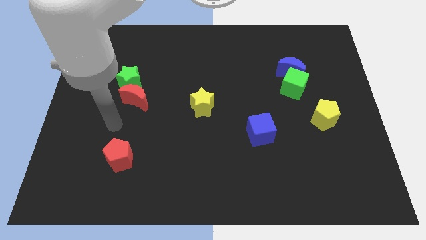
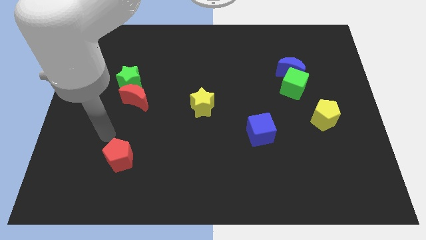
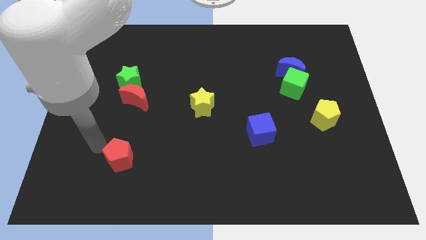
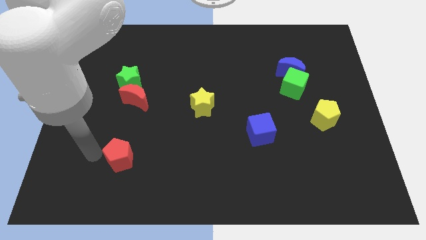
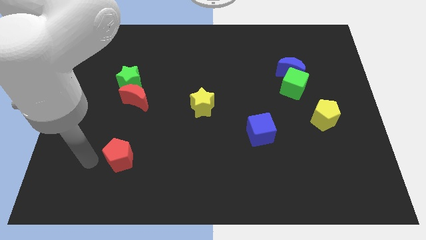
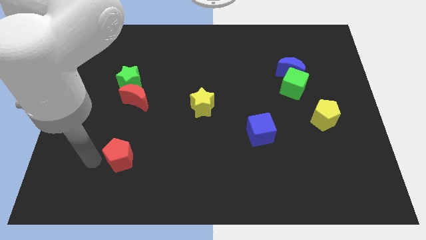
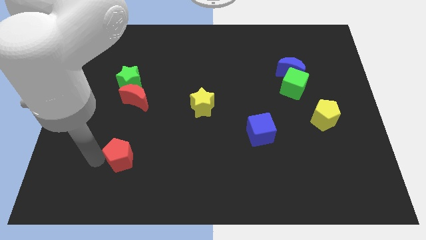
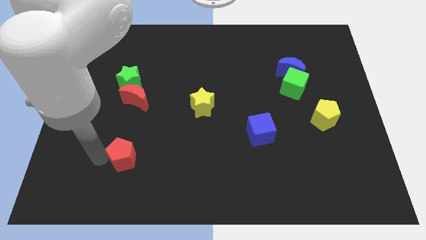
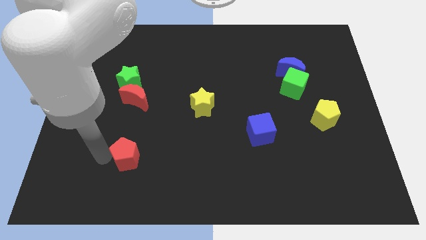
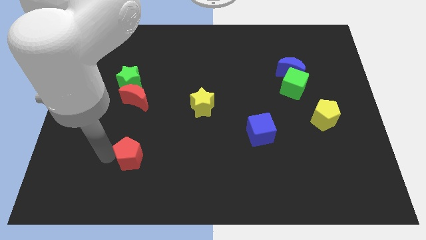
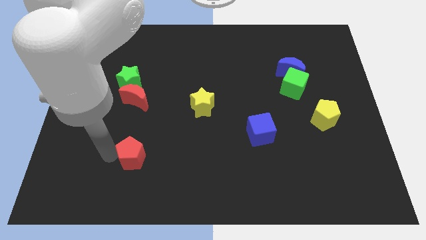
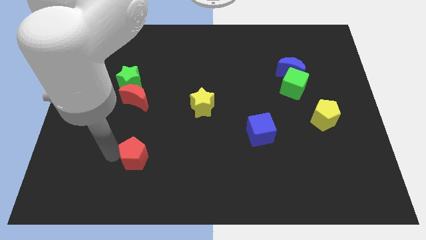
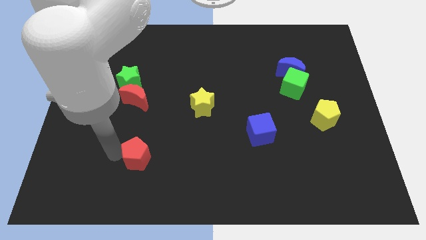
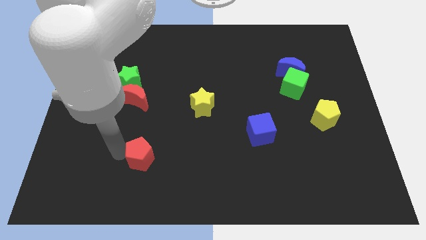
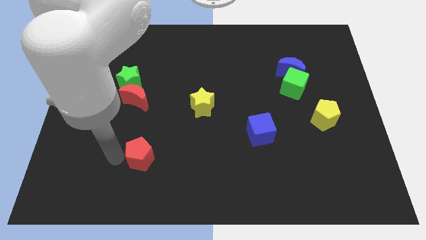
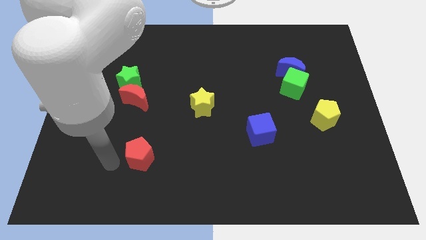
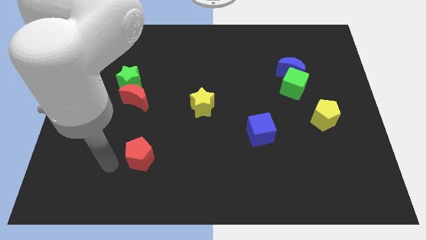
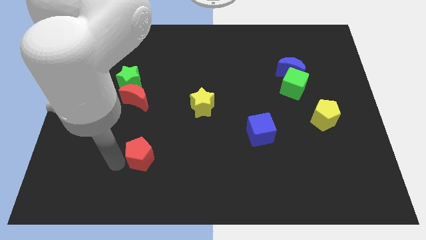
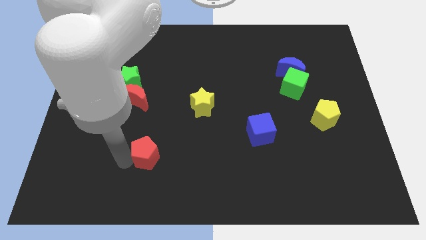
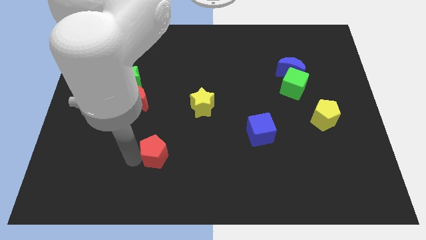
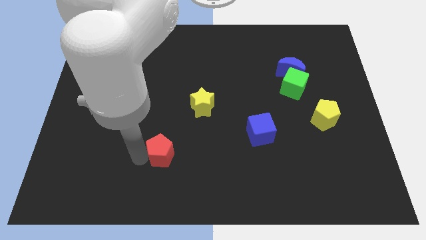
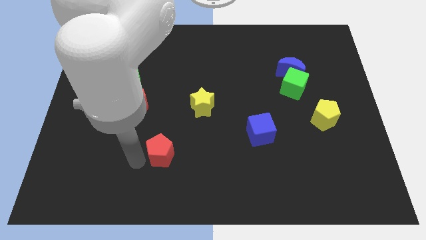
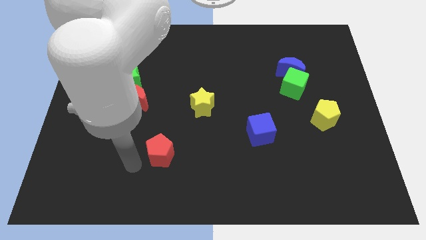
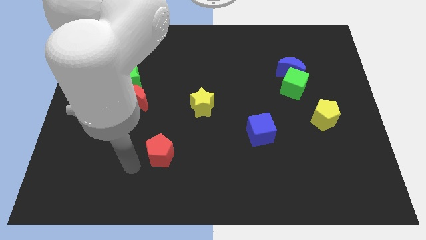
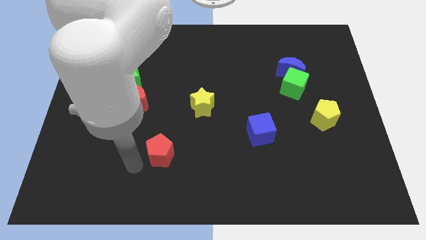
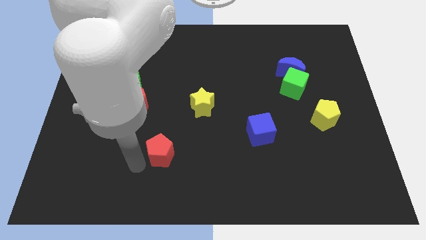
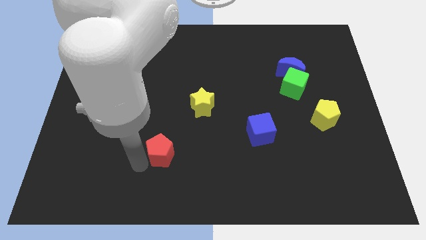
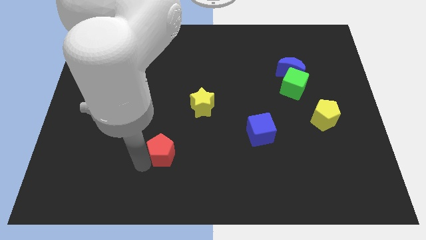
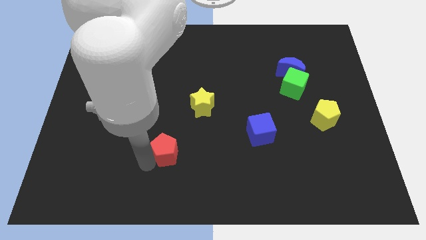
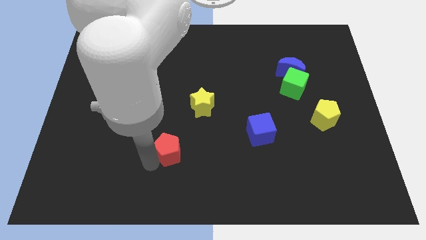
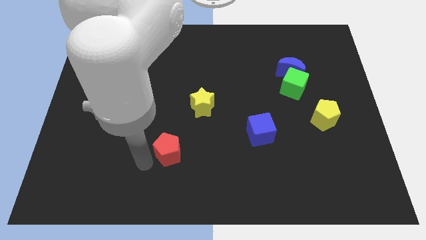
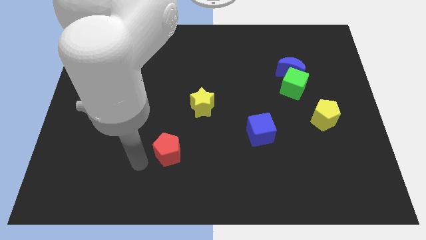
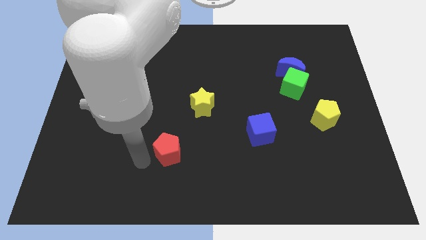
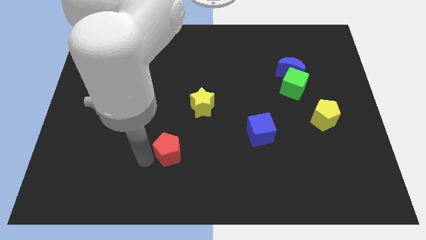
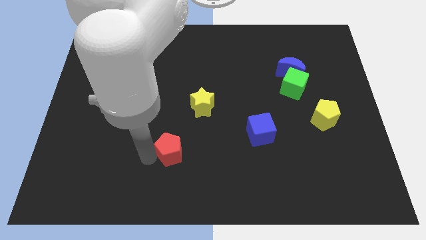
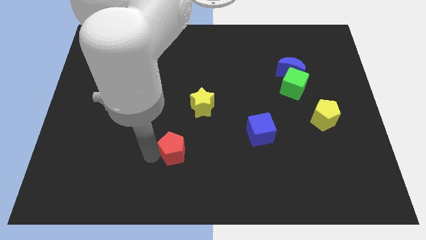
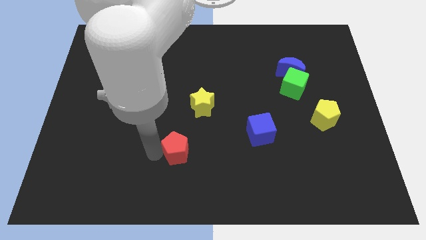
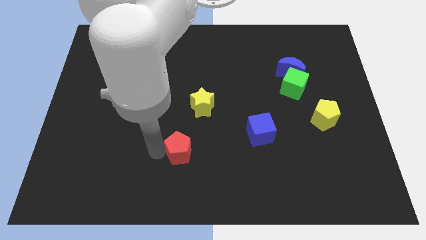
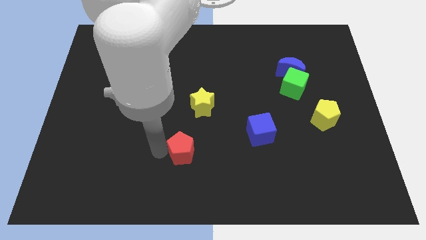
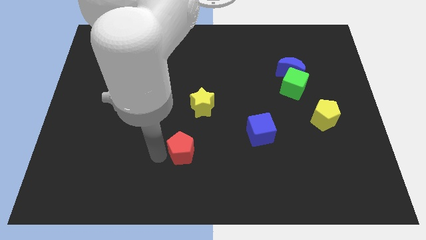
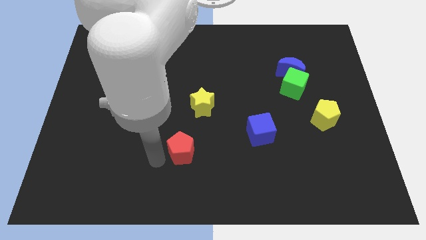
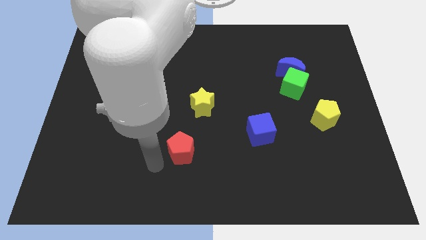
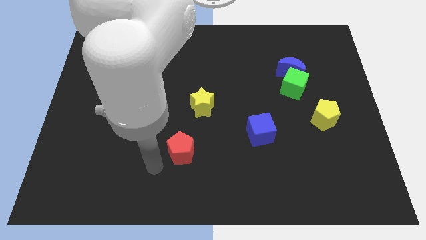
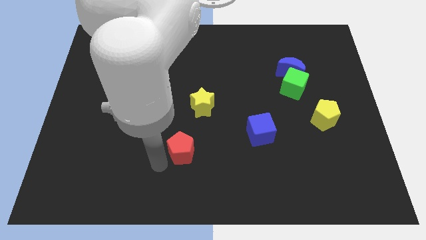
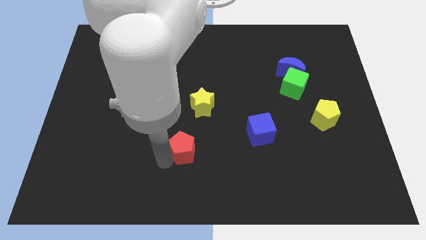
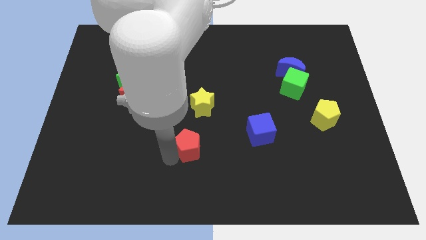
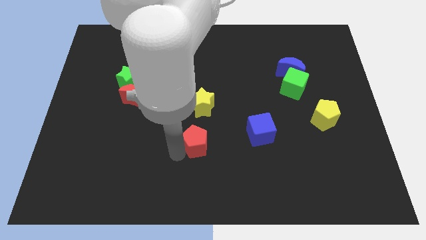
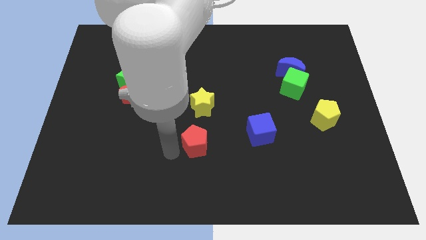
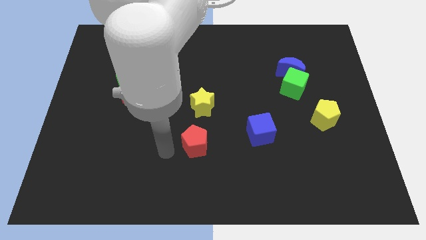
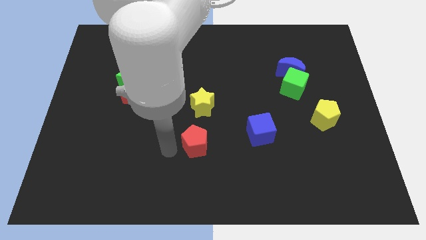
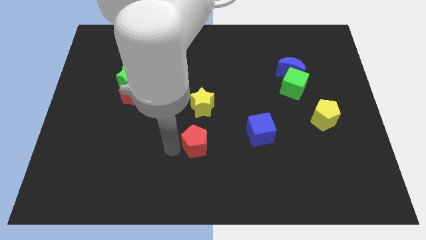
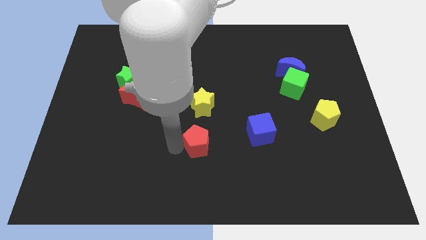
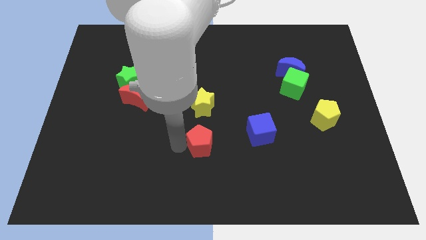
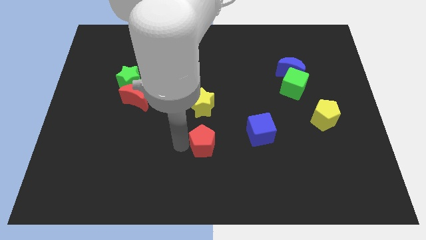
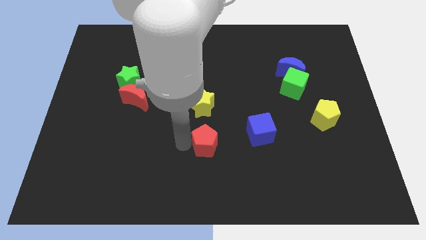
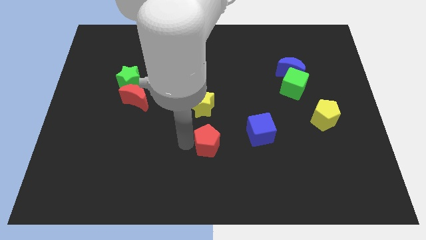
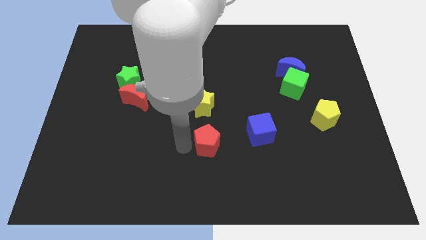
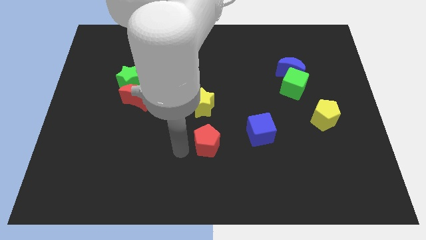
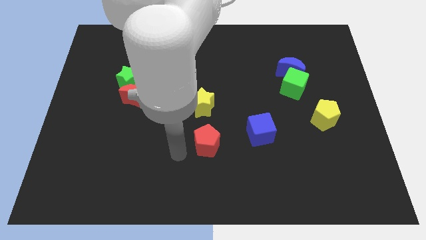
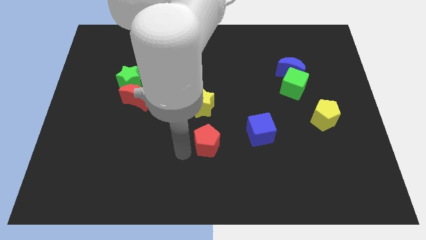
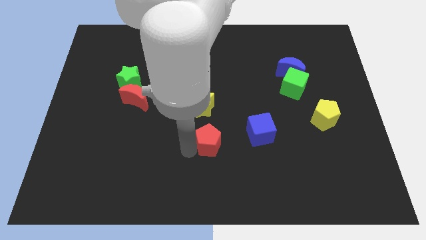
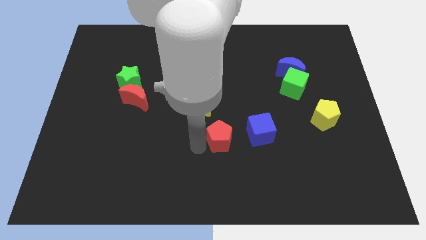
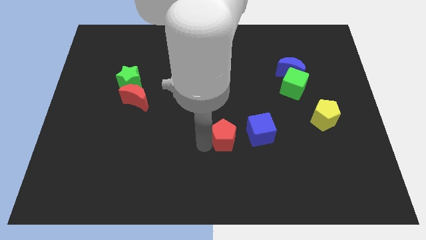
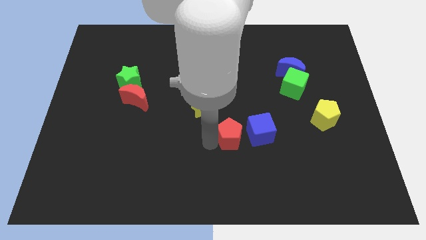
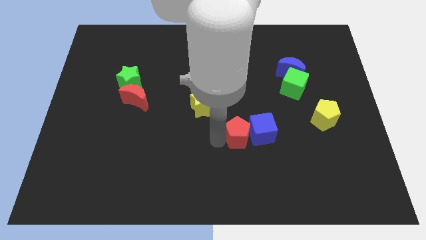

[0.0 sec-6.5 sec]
move the red pentagon towards the blue cube

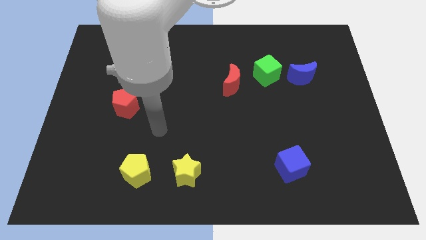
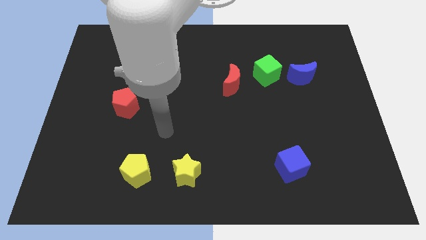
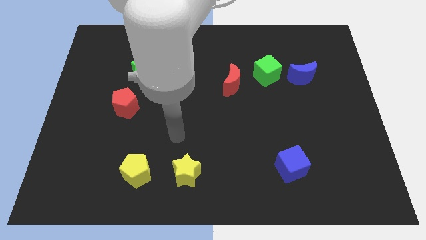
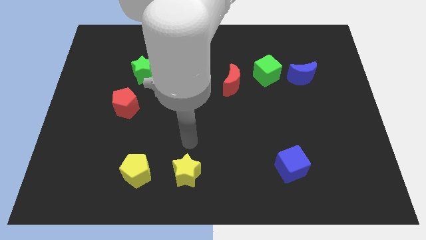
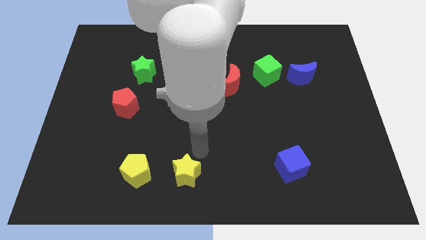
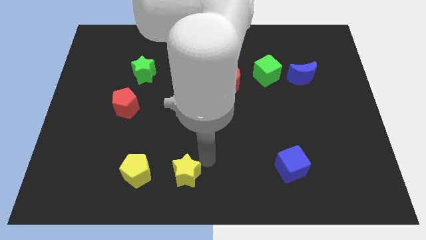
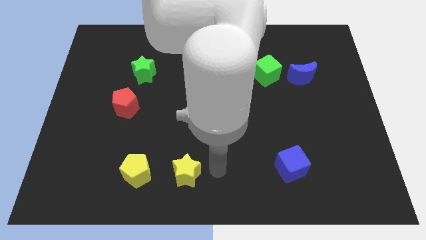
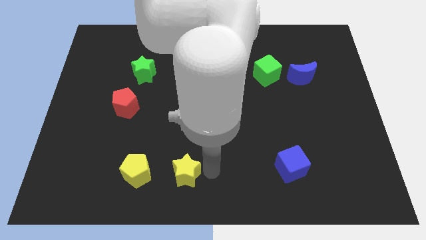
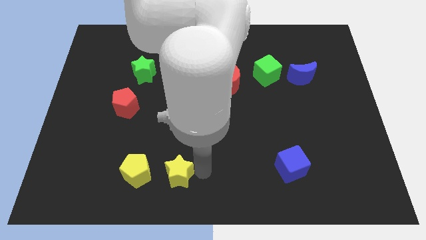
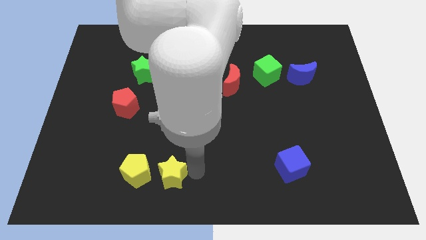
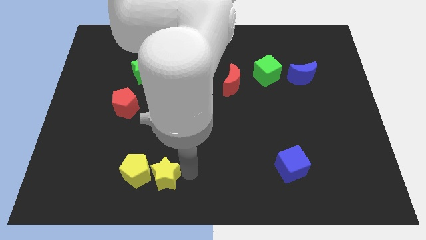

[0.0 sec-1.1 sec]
slide the yellow star next to the yellow pentagon
